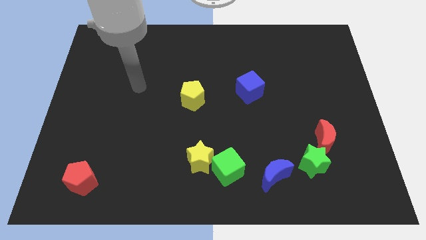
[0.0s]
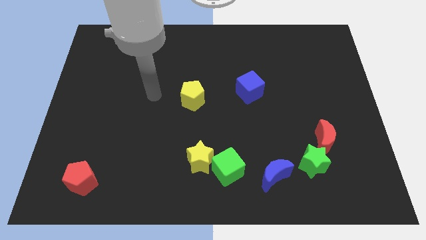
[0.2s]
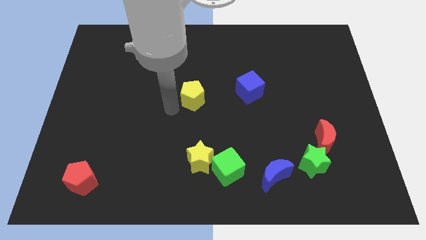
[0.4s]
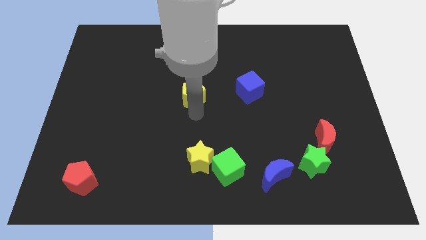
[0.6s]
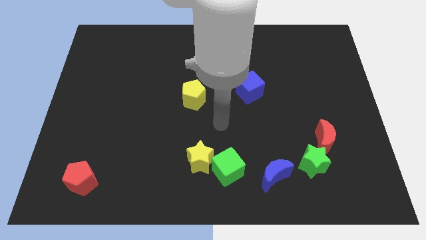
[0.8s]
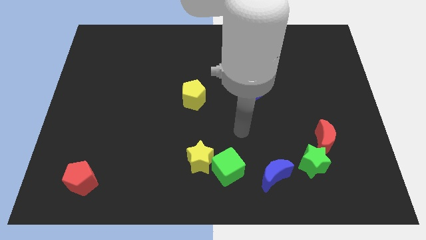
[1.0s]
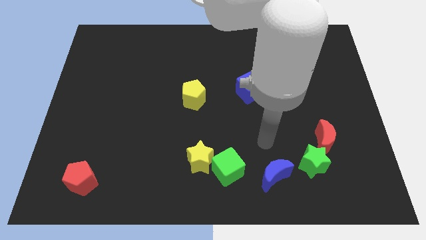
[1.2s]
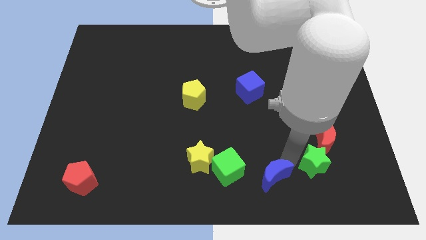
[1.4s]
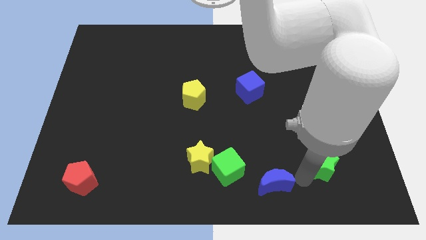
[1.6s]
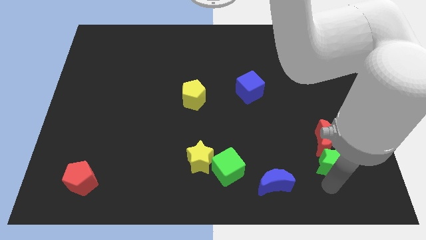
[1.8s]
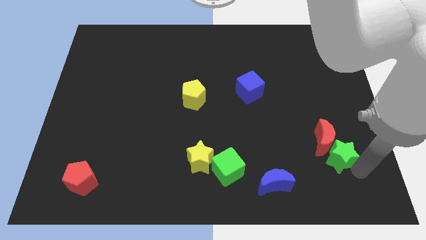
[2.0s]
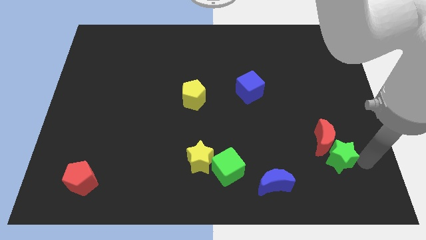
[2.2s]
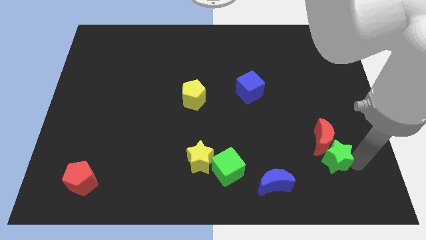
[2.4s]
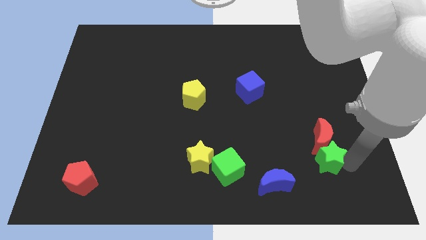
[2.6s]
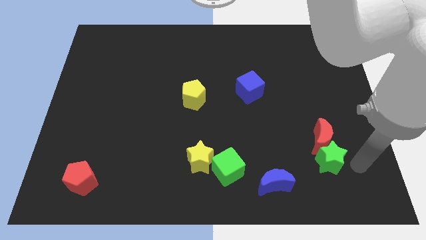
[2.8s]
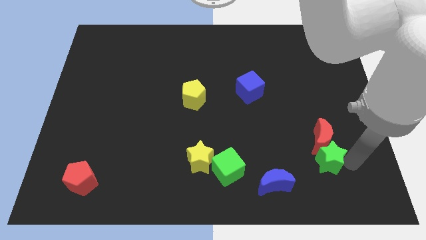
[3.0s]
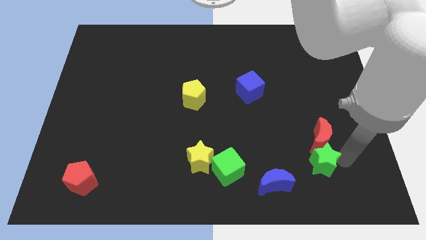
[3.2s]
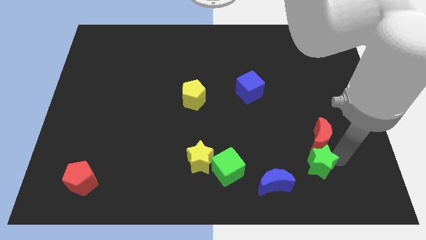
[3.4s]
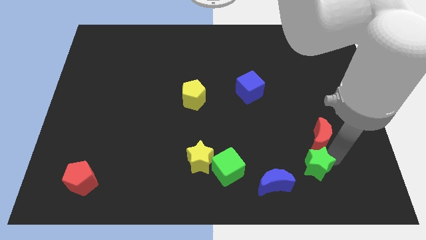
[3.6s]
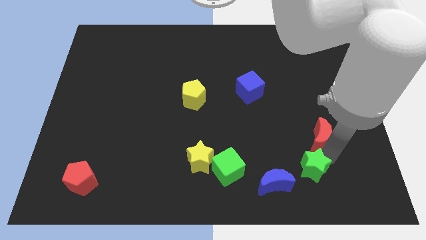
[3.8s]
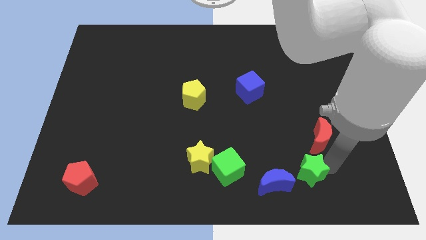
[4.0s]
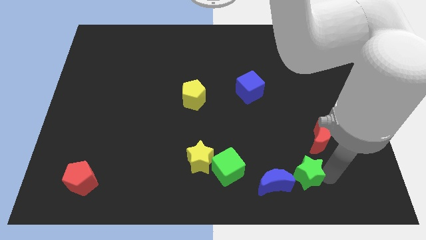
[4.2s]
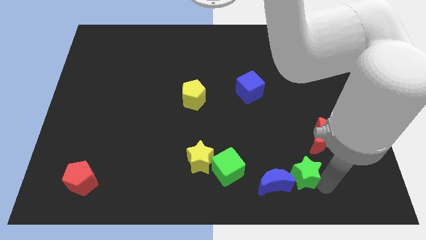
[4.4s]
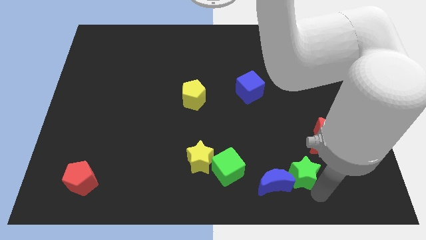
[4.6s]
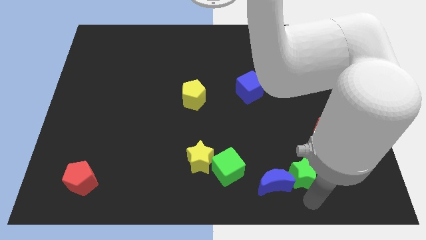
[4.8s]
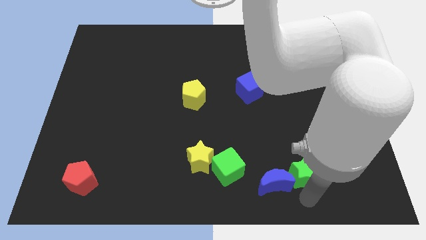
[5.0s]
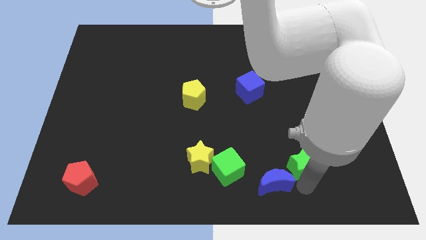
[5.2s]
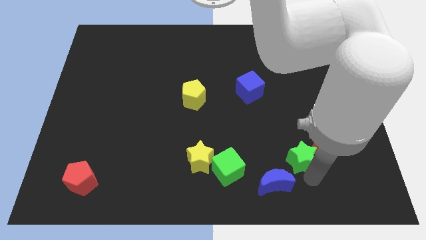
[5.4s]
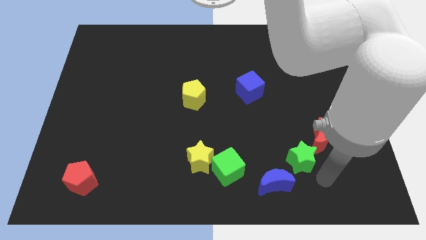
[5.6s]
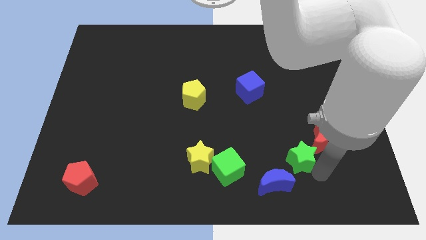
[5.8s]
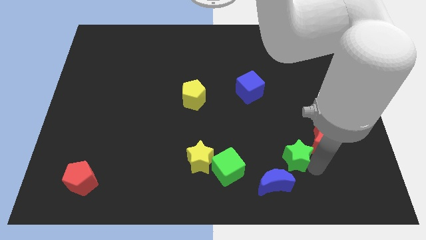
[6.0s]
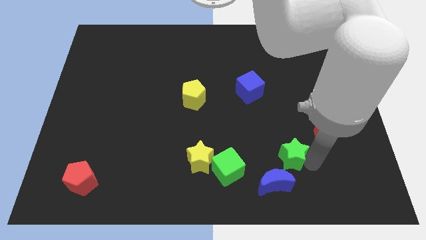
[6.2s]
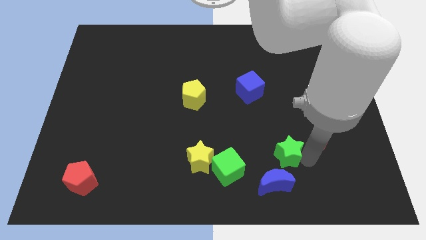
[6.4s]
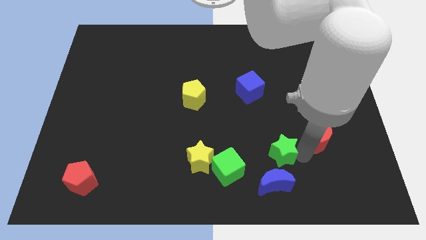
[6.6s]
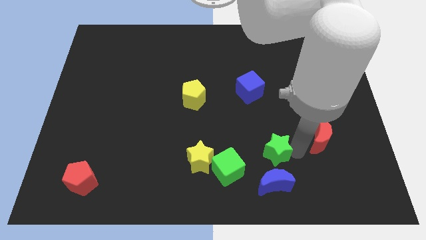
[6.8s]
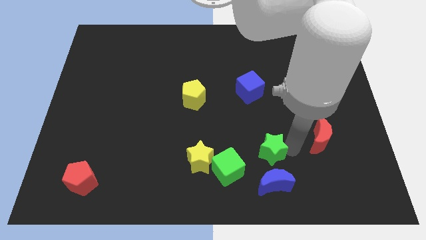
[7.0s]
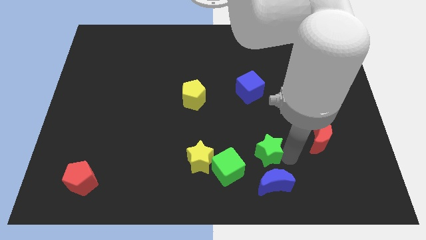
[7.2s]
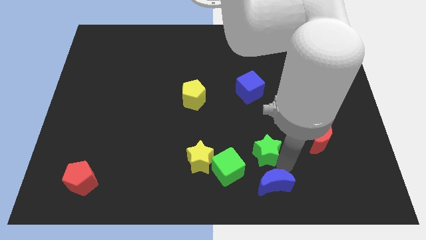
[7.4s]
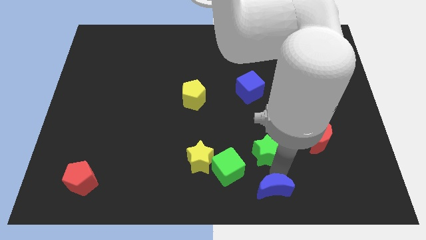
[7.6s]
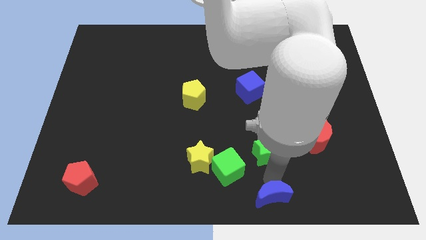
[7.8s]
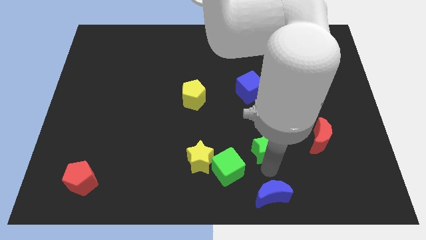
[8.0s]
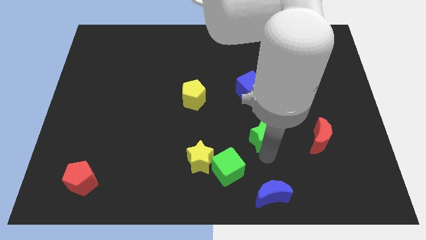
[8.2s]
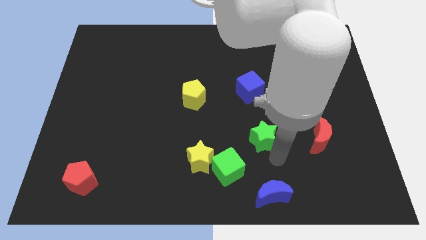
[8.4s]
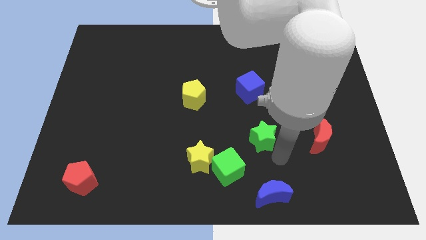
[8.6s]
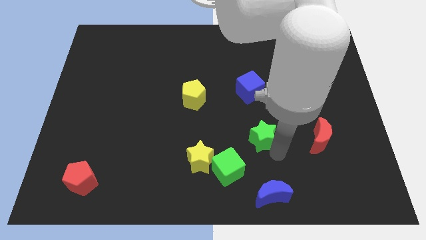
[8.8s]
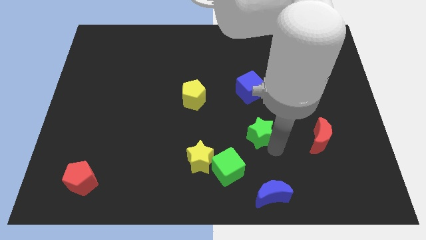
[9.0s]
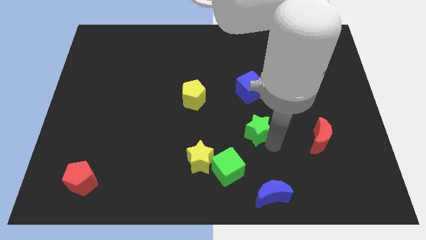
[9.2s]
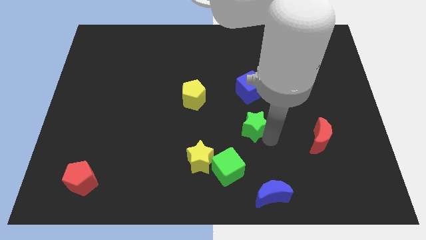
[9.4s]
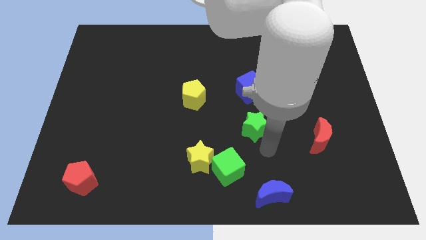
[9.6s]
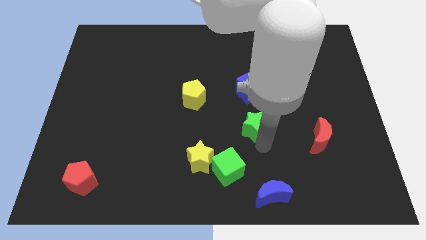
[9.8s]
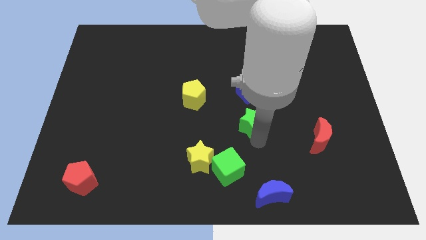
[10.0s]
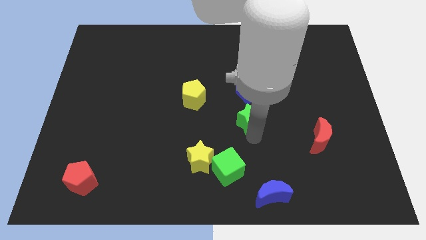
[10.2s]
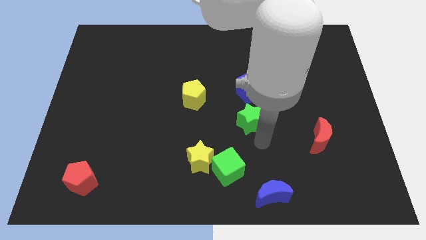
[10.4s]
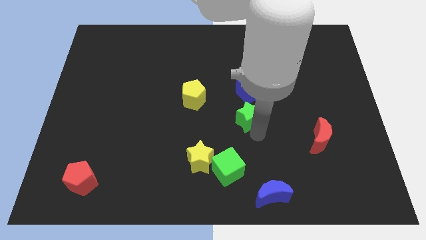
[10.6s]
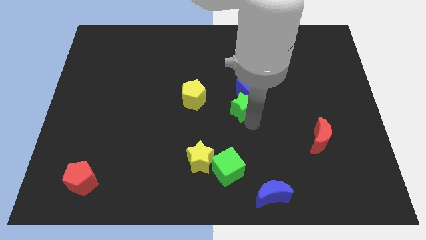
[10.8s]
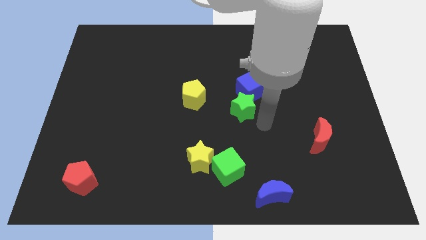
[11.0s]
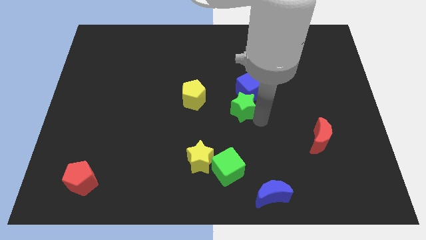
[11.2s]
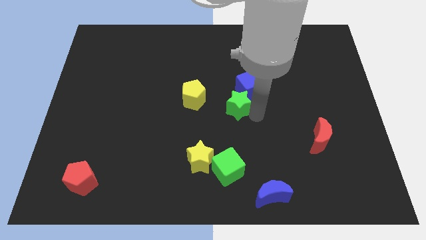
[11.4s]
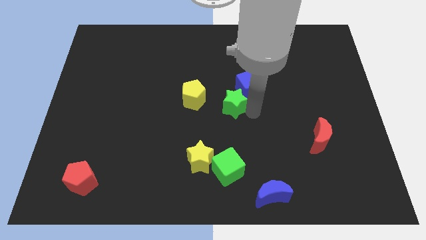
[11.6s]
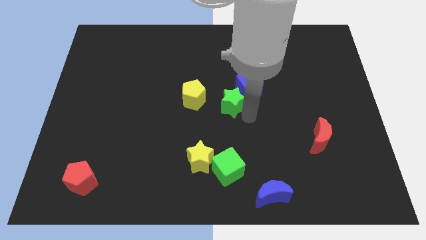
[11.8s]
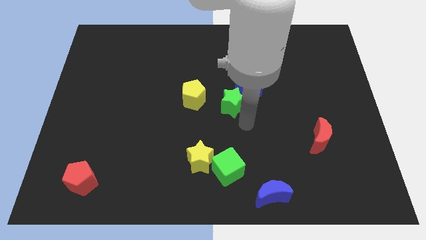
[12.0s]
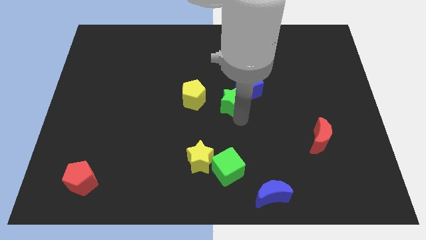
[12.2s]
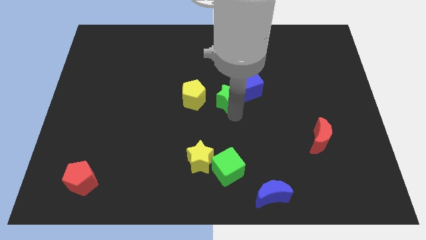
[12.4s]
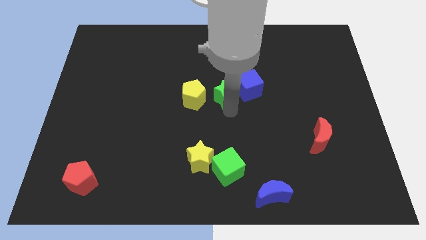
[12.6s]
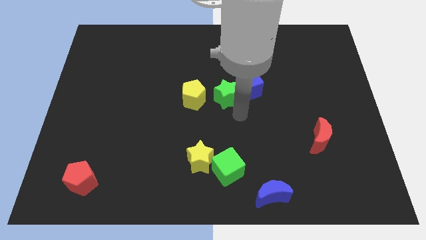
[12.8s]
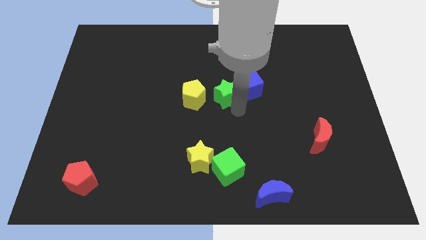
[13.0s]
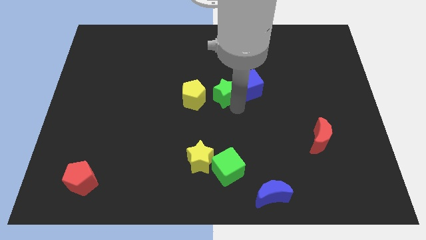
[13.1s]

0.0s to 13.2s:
put the green star diagonally up and to the right of the yellow pentagon

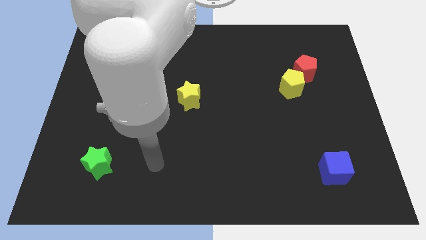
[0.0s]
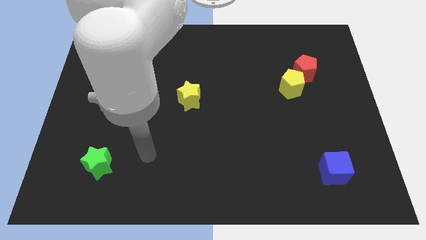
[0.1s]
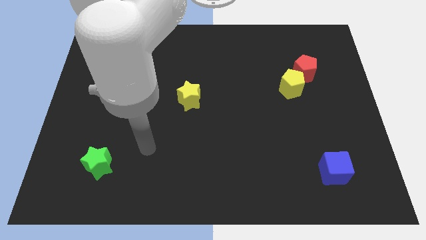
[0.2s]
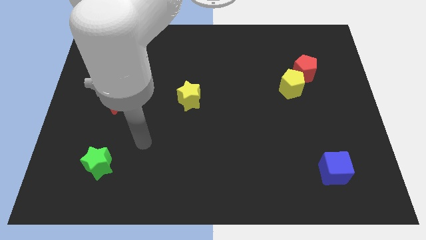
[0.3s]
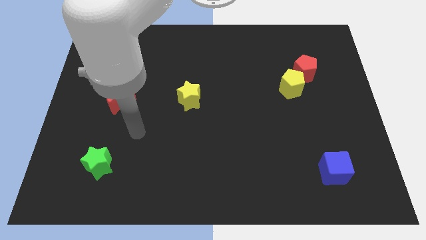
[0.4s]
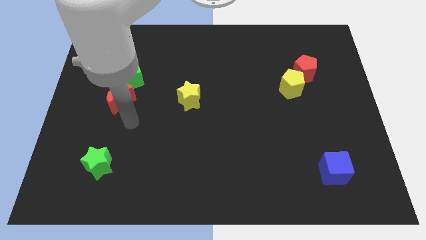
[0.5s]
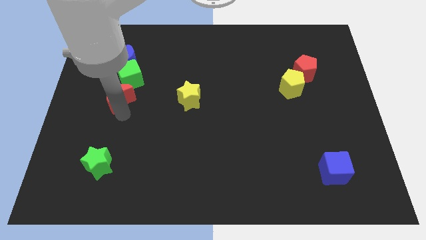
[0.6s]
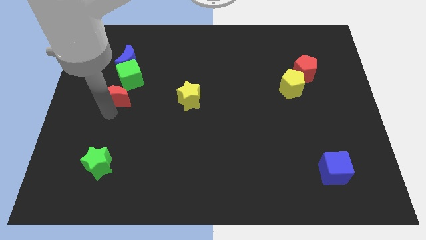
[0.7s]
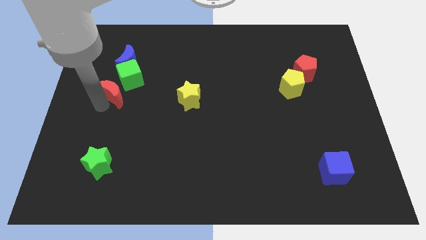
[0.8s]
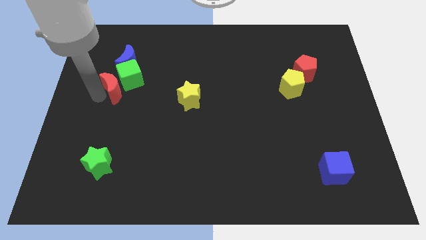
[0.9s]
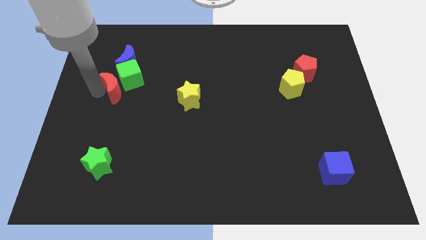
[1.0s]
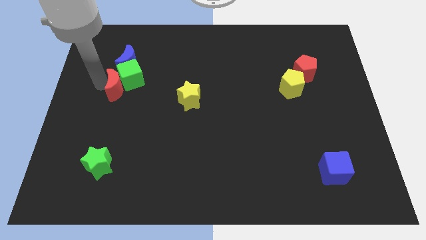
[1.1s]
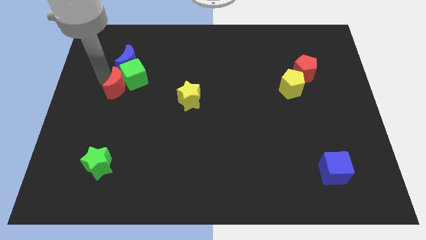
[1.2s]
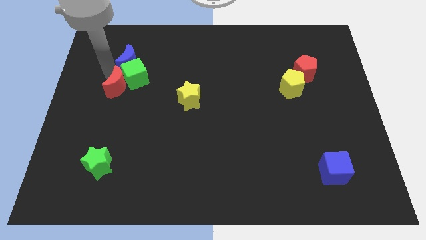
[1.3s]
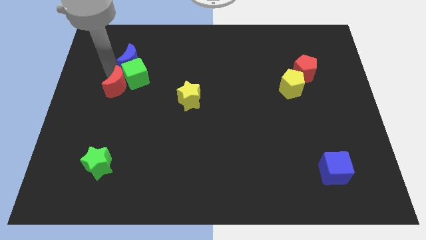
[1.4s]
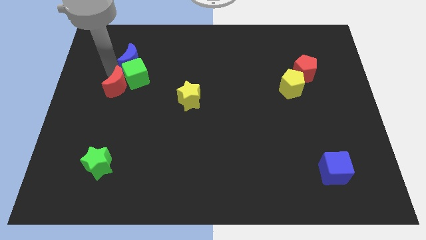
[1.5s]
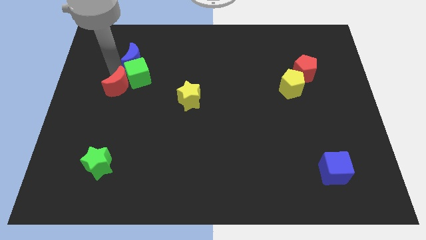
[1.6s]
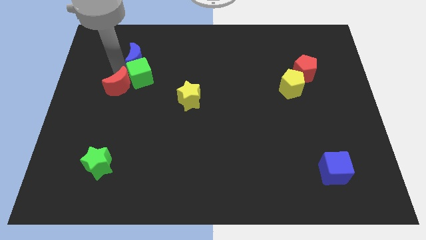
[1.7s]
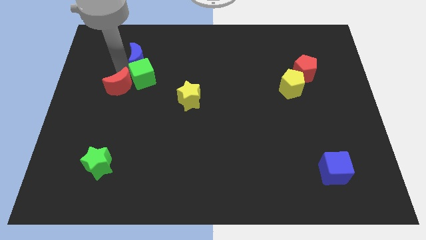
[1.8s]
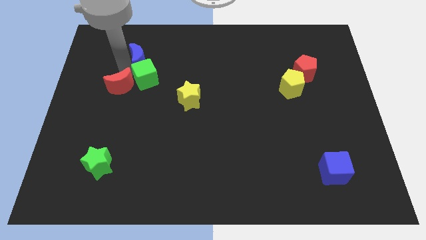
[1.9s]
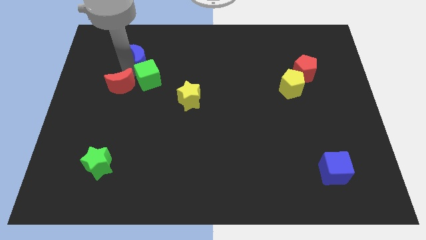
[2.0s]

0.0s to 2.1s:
slide the green cube diagonally up and to the left of the yellow star
